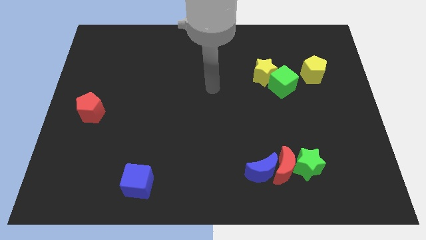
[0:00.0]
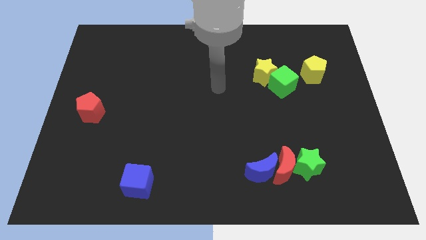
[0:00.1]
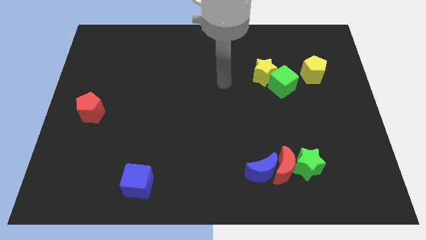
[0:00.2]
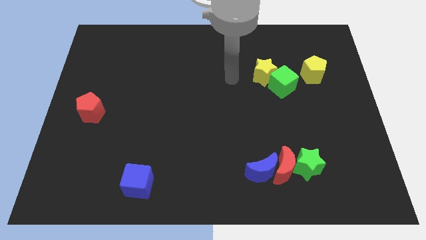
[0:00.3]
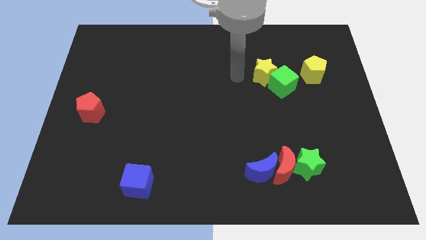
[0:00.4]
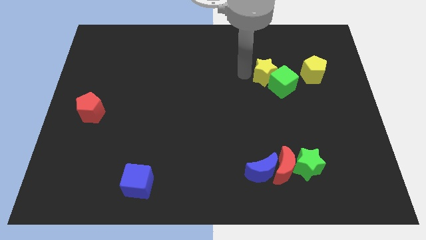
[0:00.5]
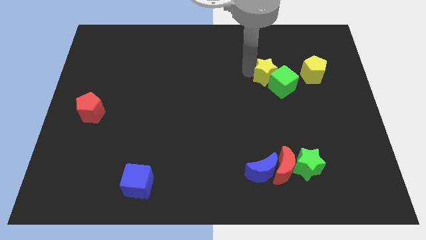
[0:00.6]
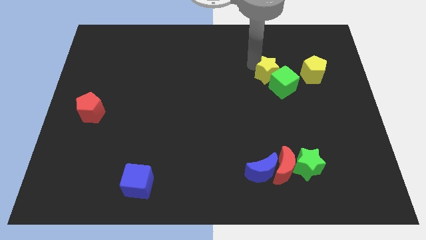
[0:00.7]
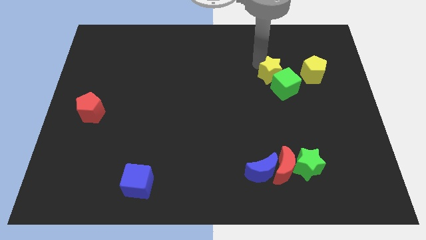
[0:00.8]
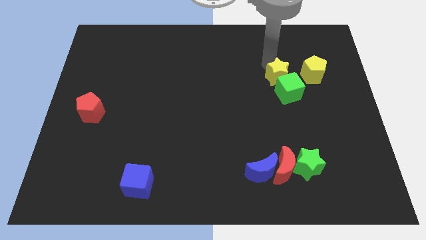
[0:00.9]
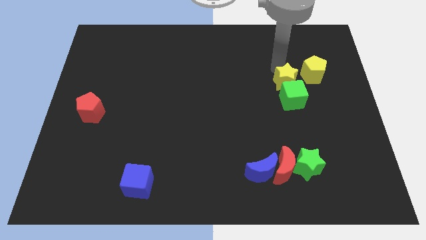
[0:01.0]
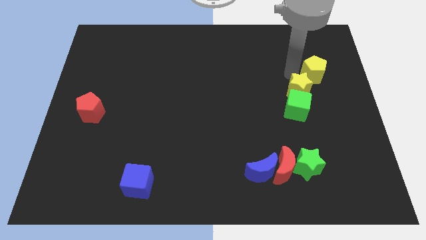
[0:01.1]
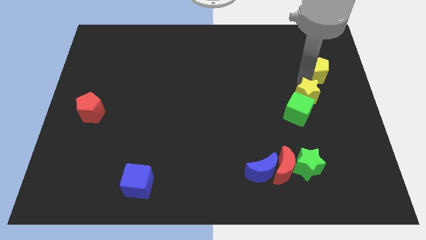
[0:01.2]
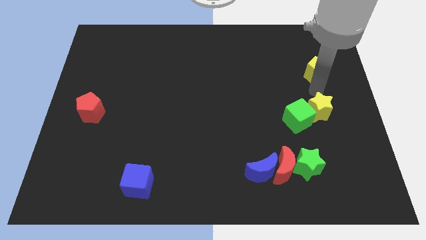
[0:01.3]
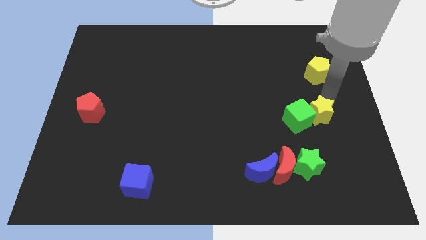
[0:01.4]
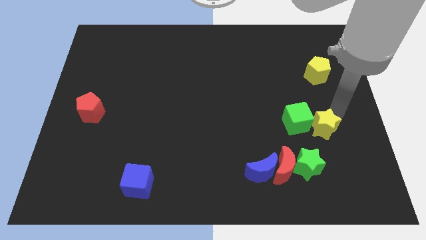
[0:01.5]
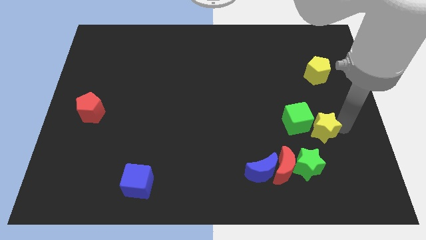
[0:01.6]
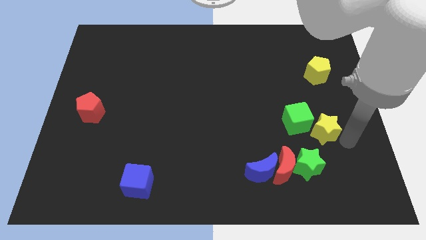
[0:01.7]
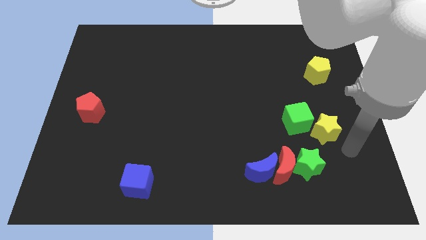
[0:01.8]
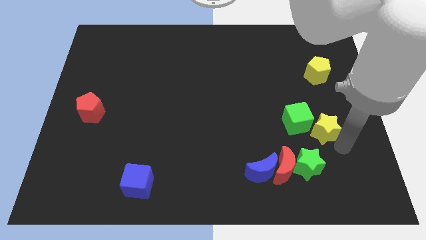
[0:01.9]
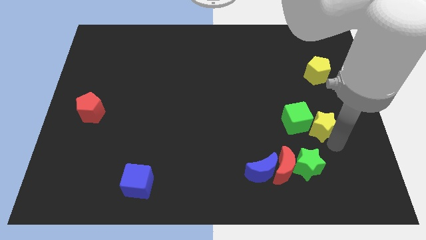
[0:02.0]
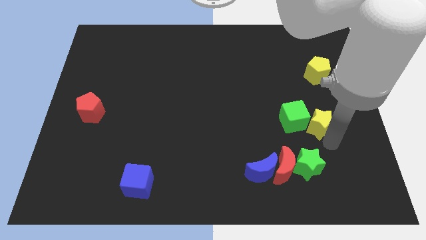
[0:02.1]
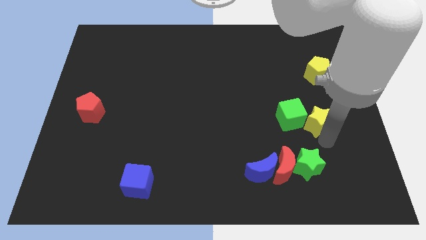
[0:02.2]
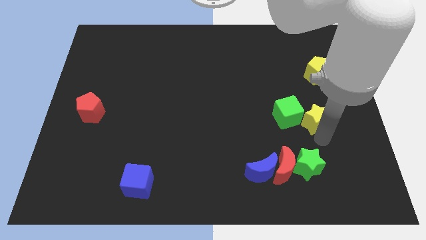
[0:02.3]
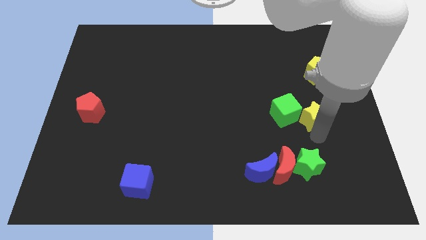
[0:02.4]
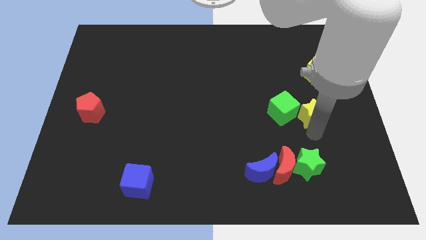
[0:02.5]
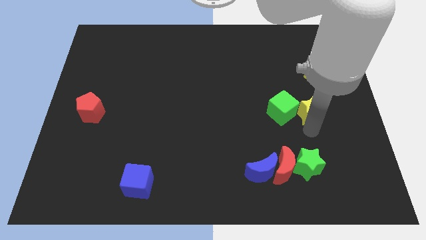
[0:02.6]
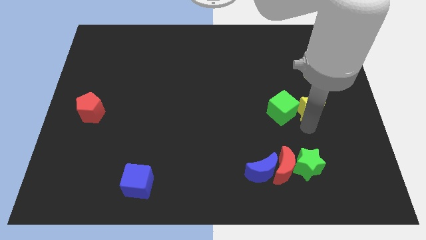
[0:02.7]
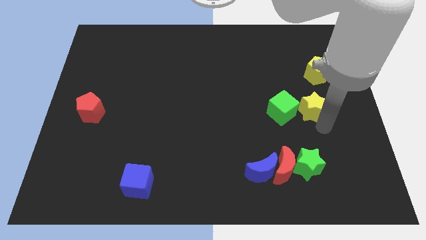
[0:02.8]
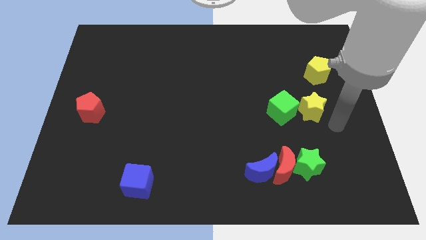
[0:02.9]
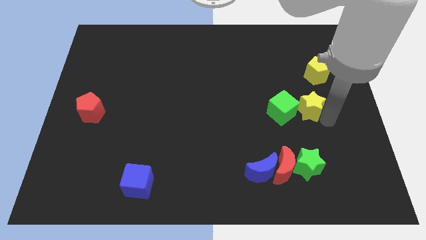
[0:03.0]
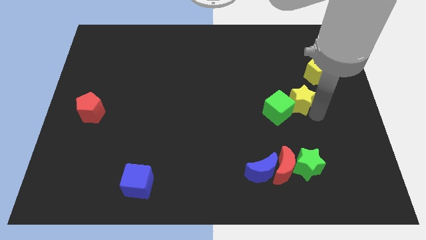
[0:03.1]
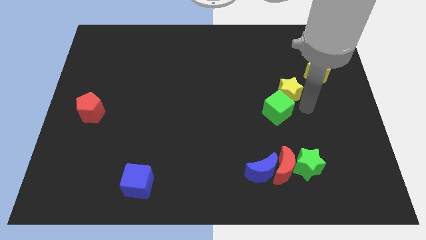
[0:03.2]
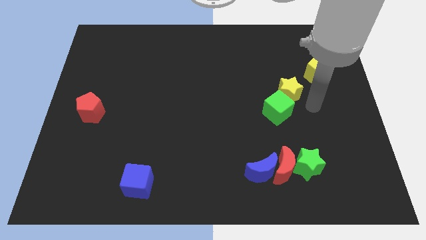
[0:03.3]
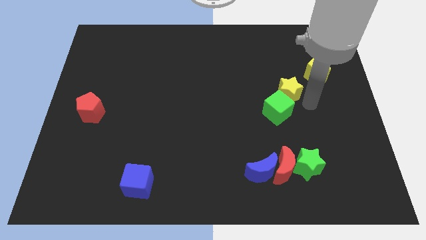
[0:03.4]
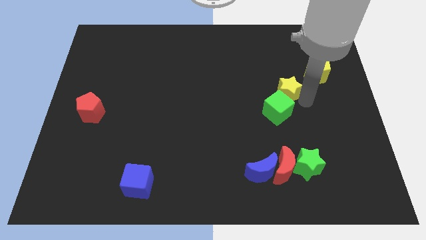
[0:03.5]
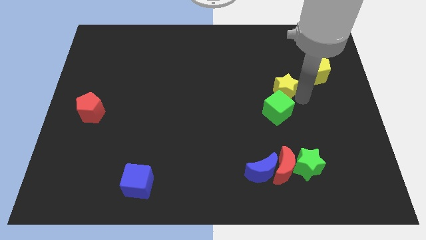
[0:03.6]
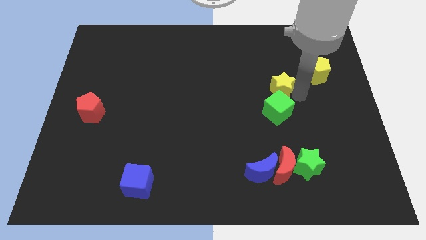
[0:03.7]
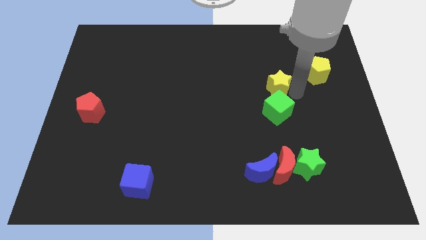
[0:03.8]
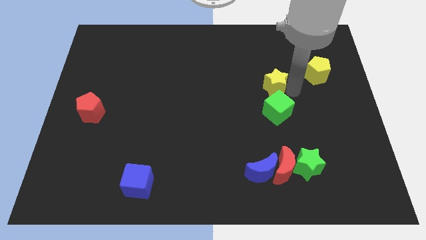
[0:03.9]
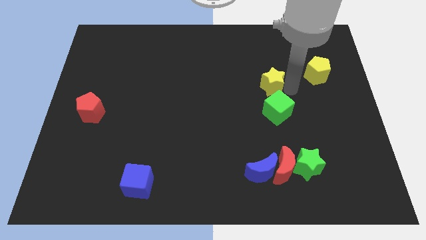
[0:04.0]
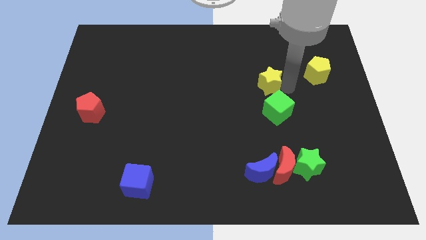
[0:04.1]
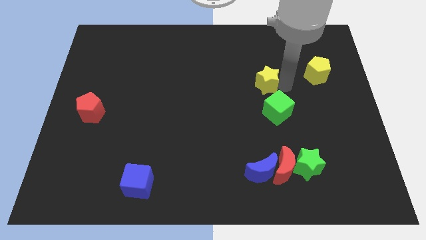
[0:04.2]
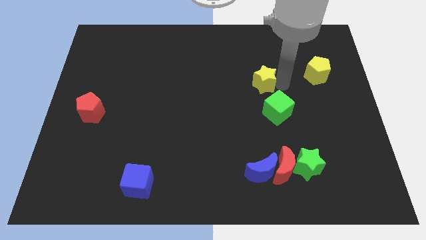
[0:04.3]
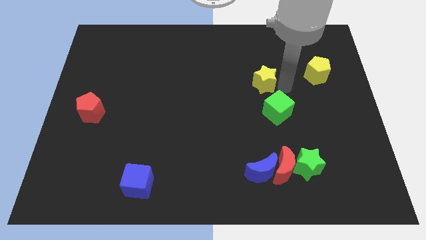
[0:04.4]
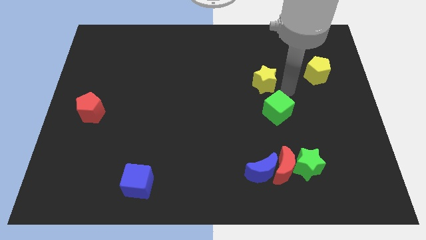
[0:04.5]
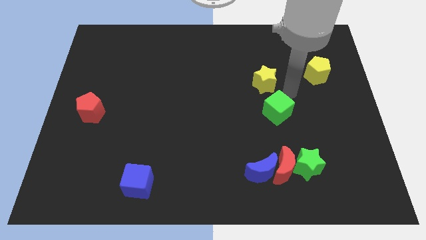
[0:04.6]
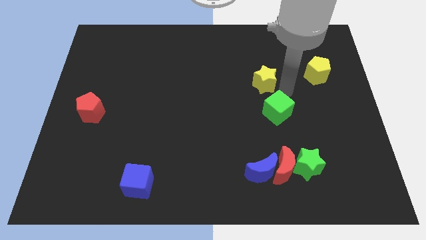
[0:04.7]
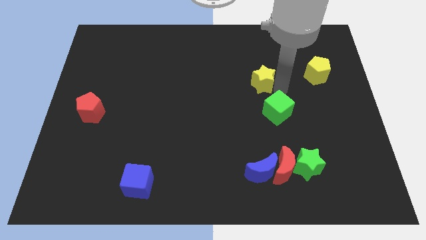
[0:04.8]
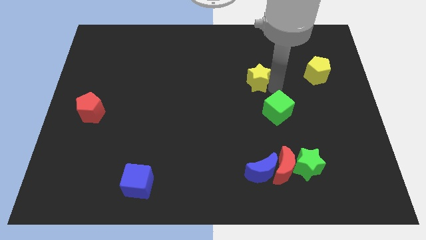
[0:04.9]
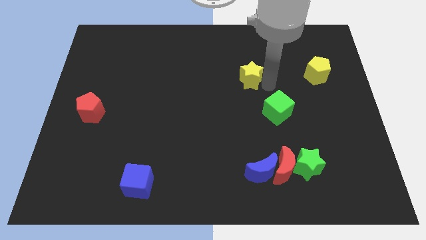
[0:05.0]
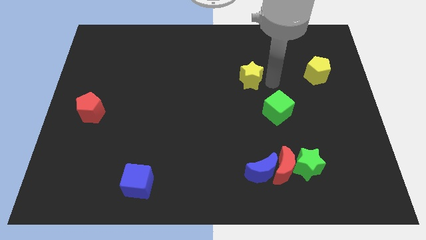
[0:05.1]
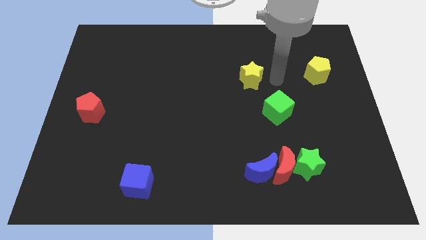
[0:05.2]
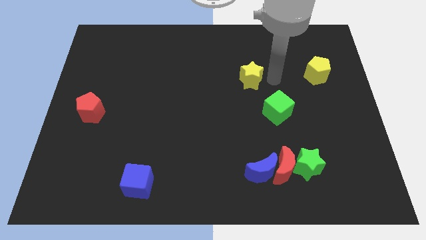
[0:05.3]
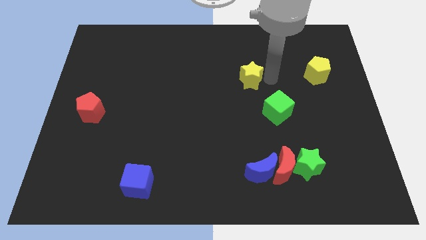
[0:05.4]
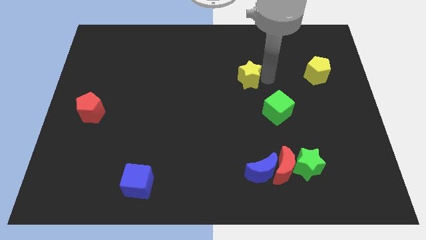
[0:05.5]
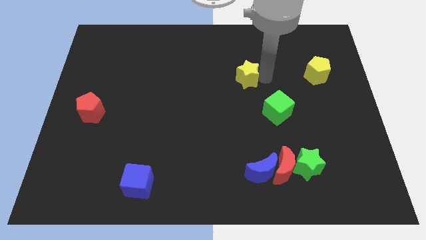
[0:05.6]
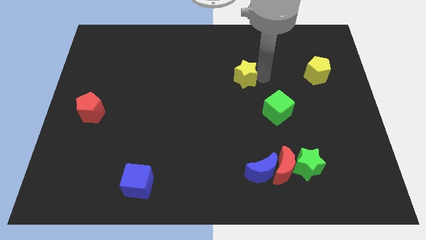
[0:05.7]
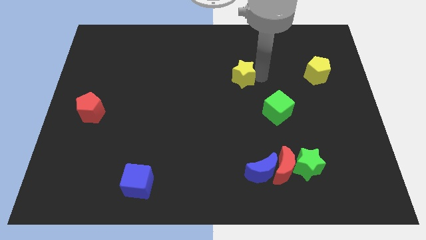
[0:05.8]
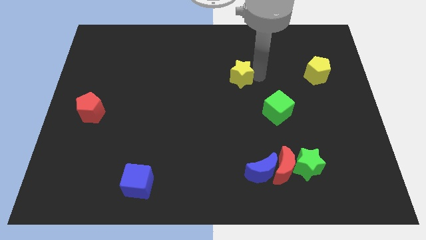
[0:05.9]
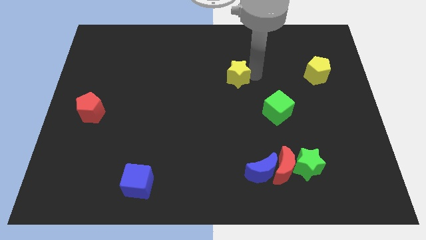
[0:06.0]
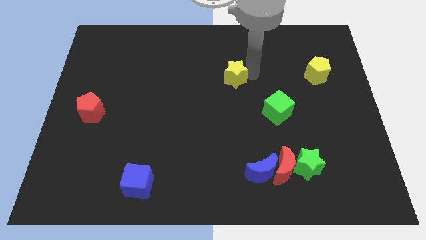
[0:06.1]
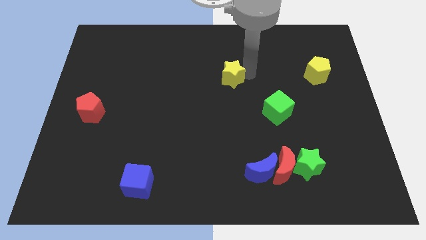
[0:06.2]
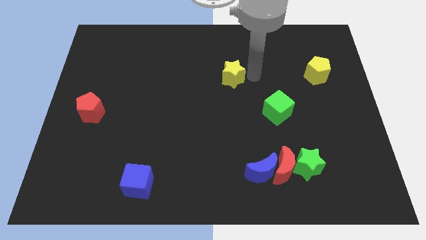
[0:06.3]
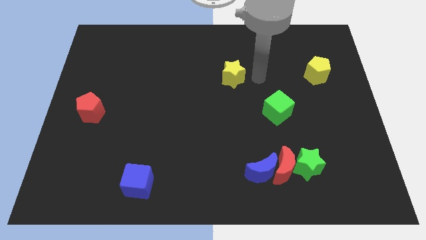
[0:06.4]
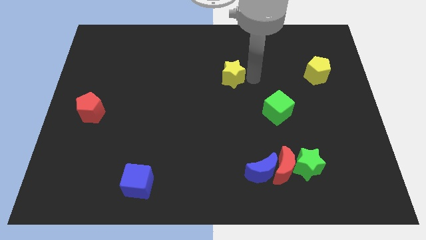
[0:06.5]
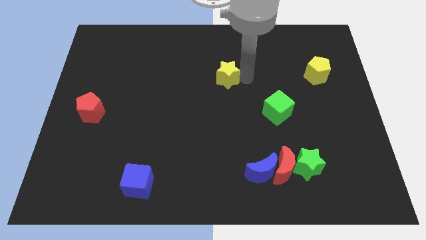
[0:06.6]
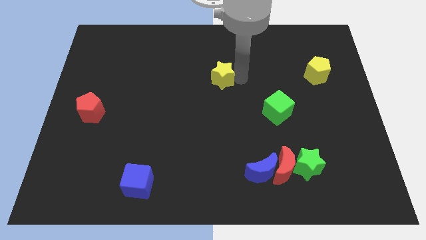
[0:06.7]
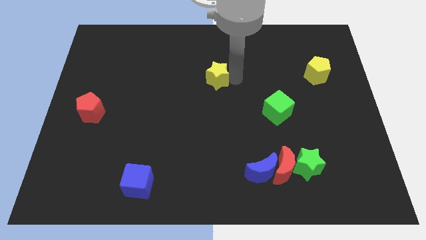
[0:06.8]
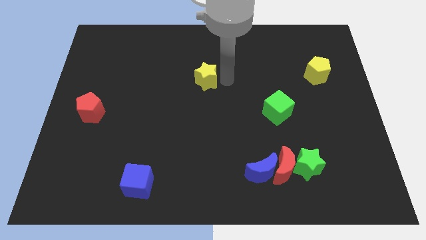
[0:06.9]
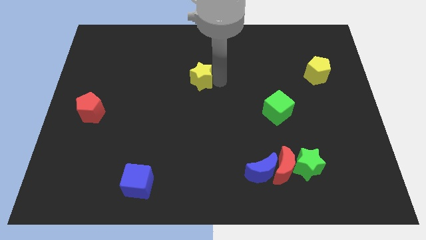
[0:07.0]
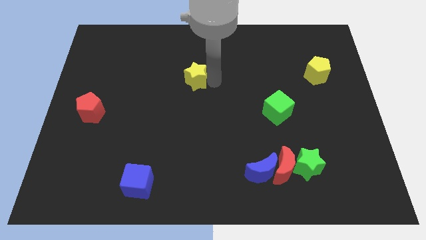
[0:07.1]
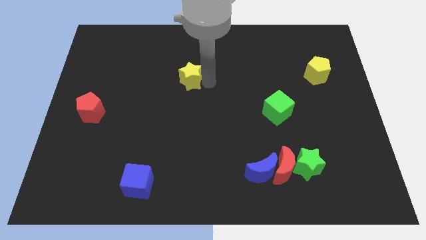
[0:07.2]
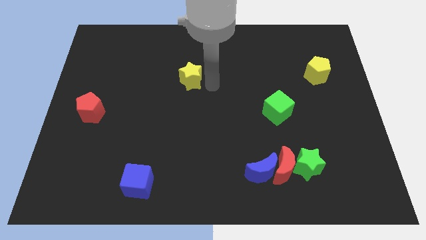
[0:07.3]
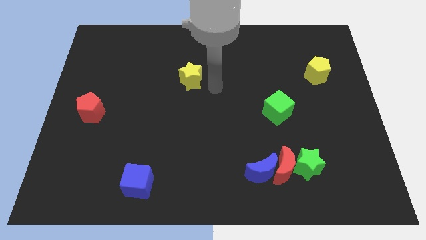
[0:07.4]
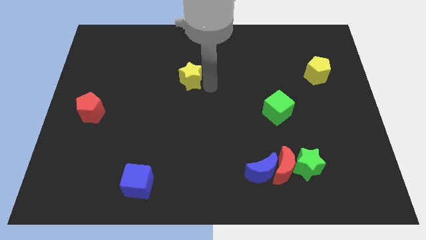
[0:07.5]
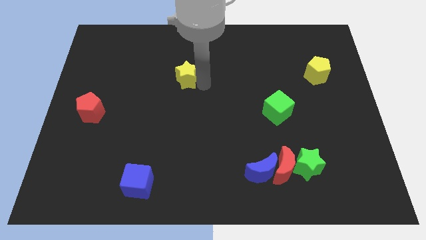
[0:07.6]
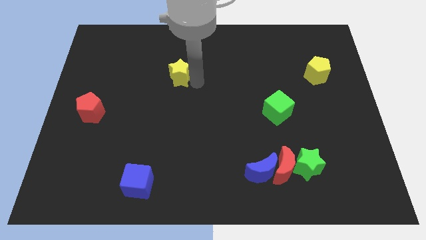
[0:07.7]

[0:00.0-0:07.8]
push the yellow star left
